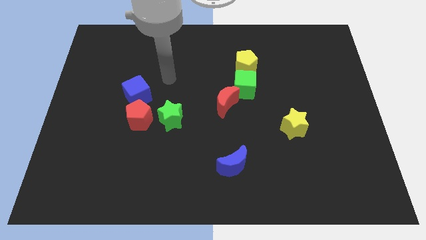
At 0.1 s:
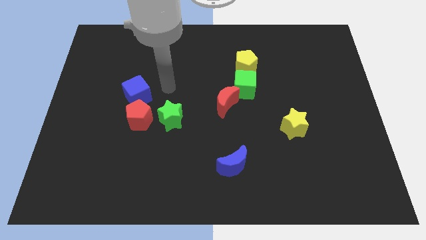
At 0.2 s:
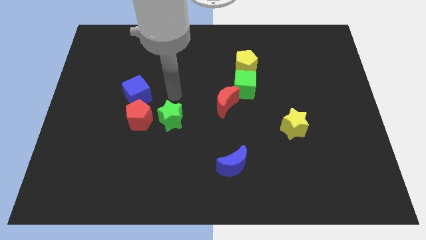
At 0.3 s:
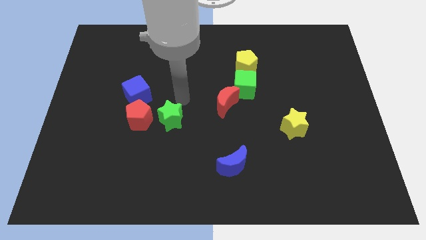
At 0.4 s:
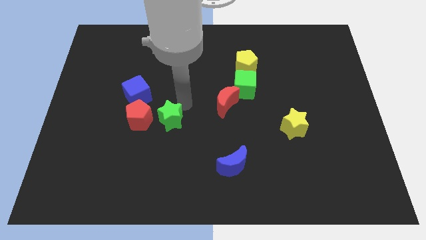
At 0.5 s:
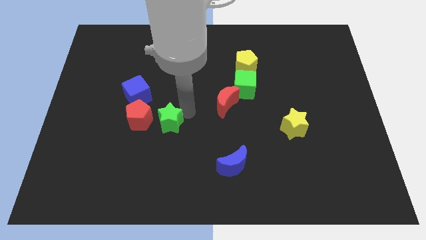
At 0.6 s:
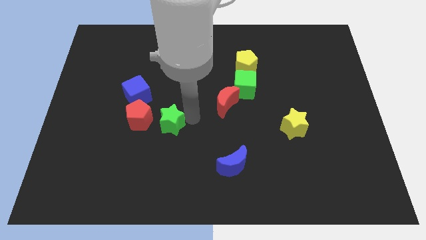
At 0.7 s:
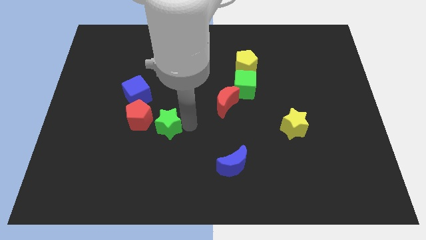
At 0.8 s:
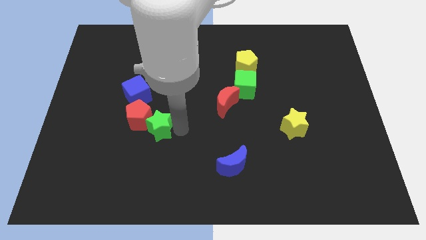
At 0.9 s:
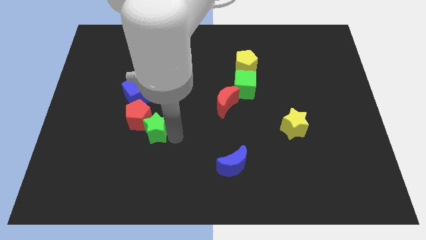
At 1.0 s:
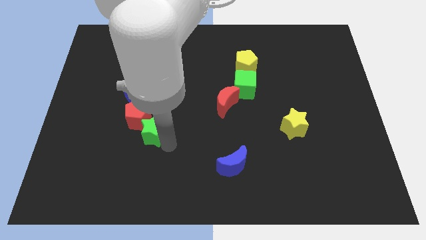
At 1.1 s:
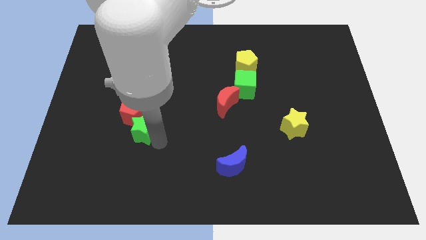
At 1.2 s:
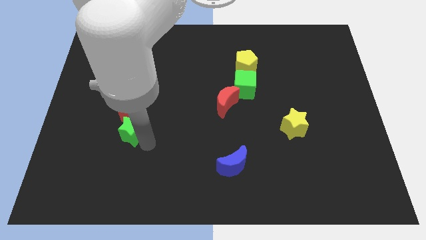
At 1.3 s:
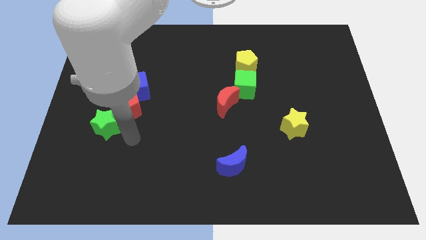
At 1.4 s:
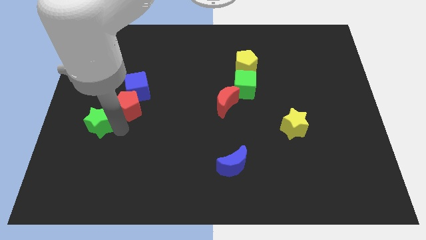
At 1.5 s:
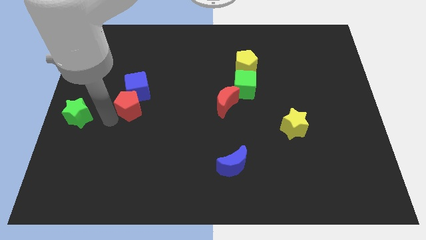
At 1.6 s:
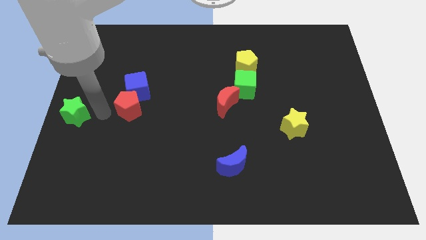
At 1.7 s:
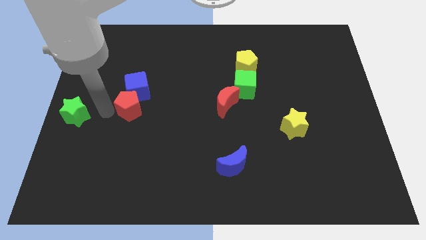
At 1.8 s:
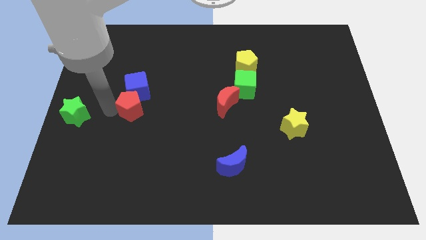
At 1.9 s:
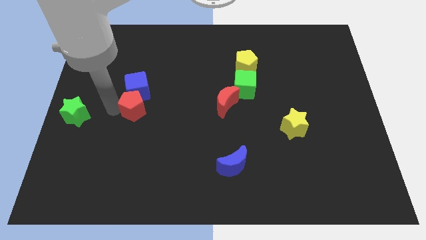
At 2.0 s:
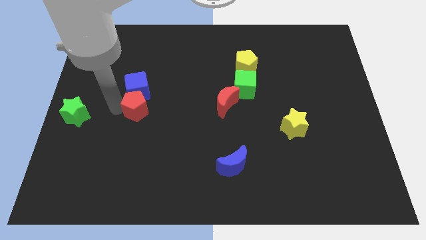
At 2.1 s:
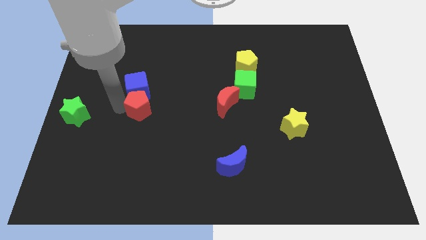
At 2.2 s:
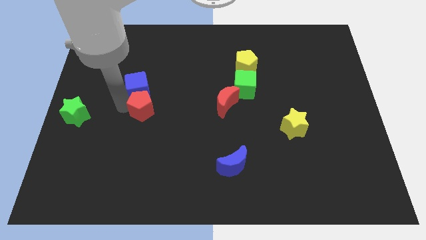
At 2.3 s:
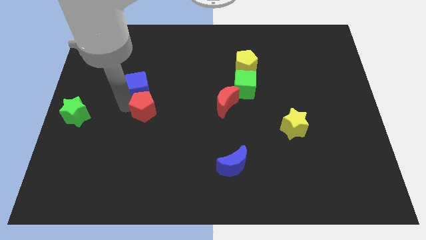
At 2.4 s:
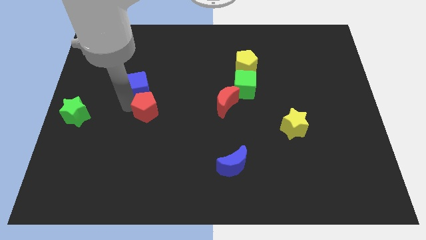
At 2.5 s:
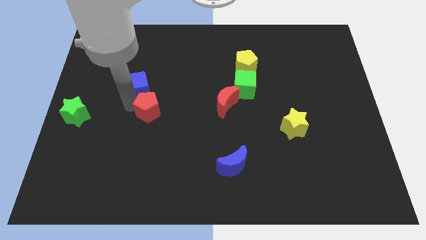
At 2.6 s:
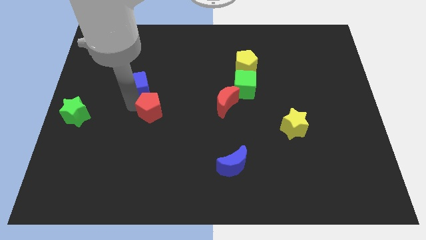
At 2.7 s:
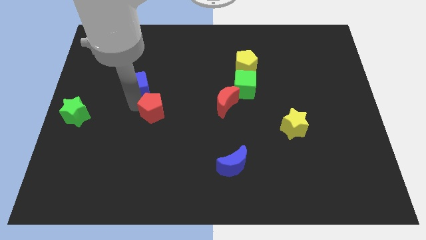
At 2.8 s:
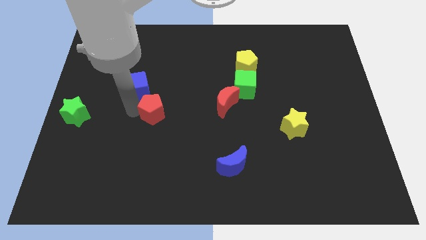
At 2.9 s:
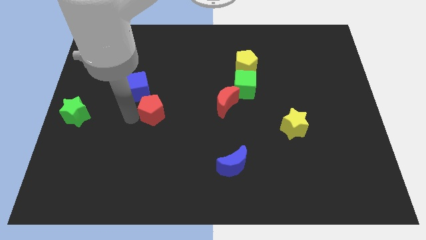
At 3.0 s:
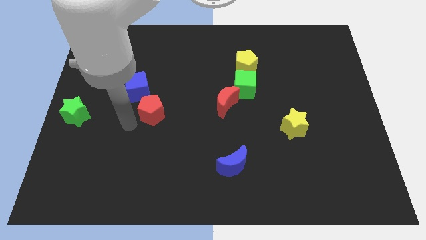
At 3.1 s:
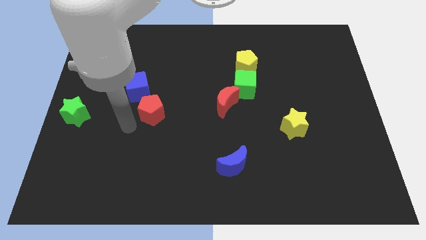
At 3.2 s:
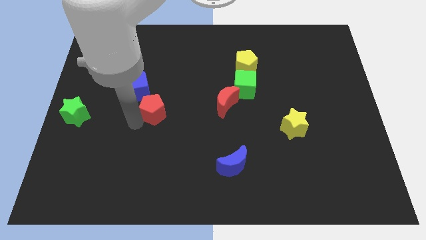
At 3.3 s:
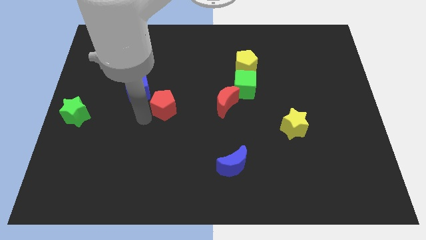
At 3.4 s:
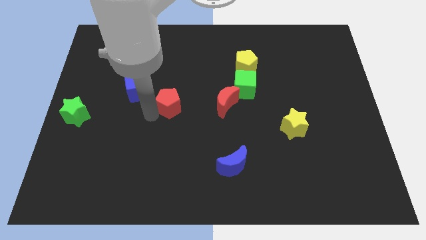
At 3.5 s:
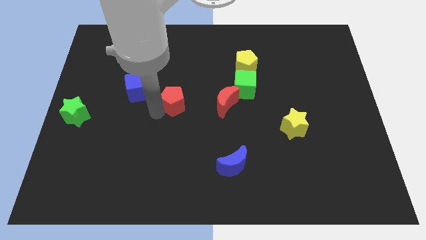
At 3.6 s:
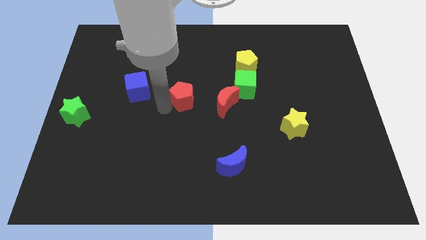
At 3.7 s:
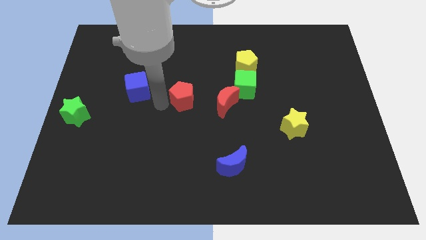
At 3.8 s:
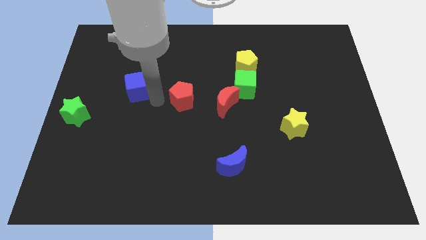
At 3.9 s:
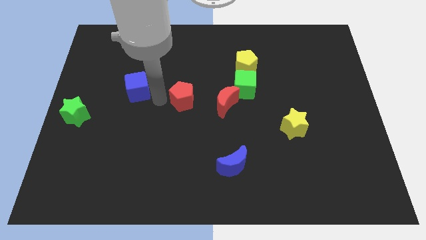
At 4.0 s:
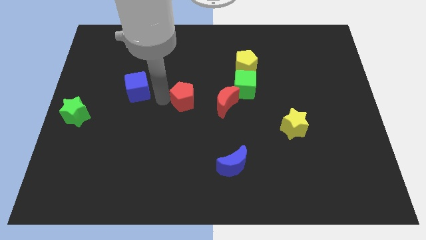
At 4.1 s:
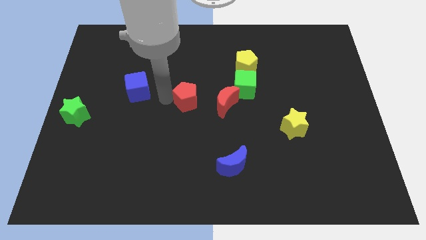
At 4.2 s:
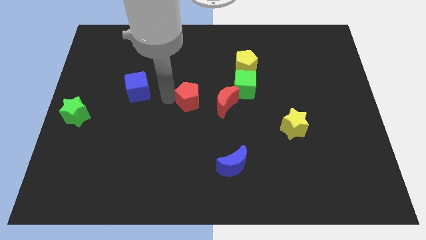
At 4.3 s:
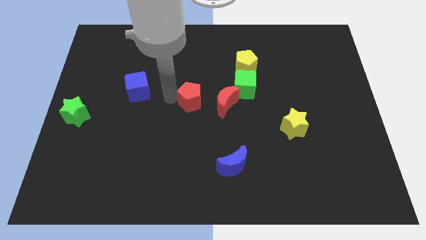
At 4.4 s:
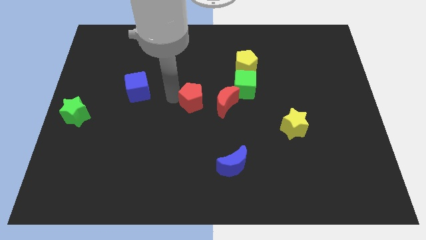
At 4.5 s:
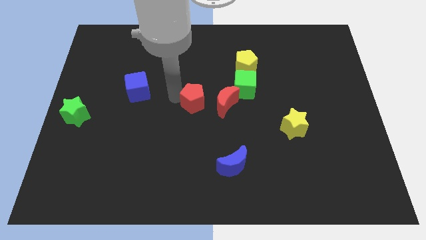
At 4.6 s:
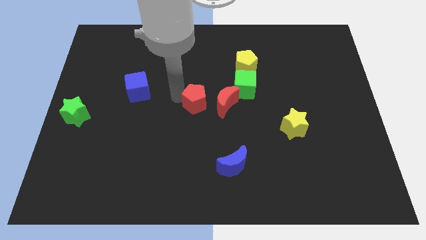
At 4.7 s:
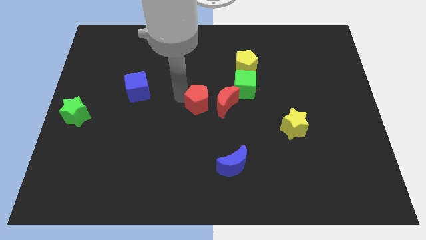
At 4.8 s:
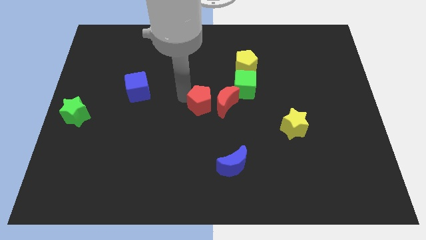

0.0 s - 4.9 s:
slide the red pentagon to the red moon

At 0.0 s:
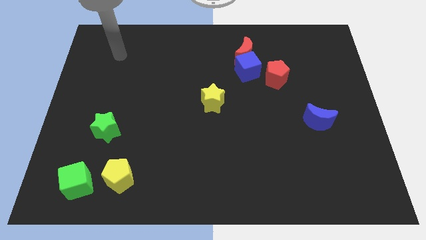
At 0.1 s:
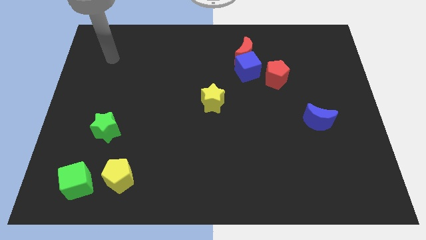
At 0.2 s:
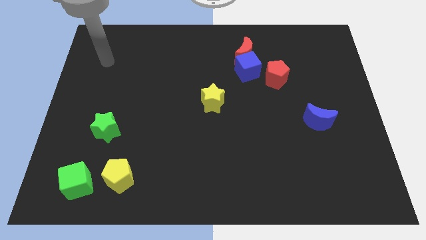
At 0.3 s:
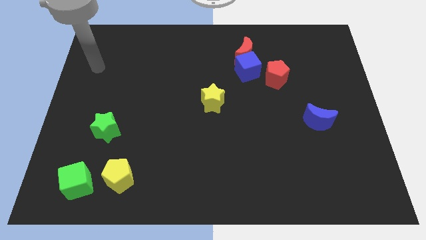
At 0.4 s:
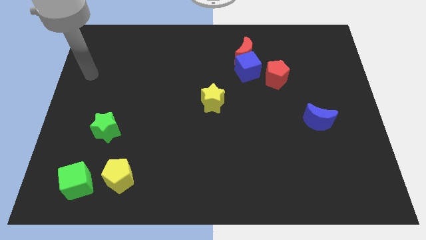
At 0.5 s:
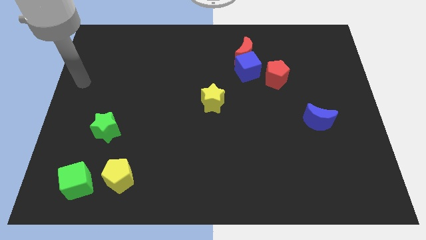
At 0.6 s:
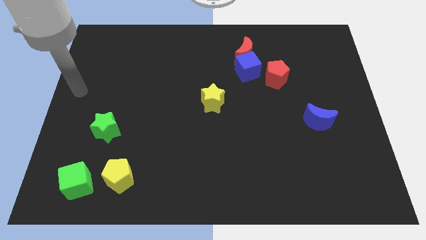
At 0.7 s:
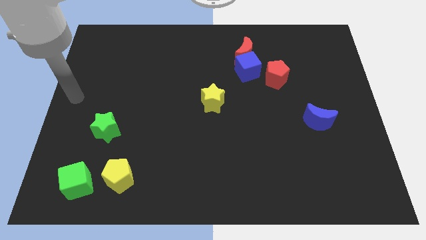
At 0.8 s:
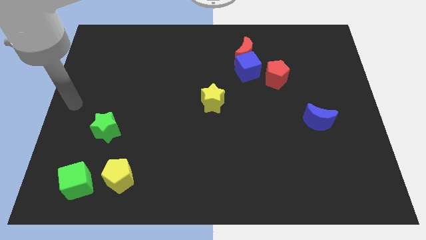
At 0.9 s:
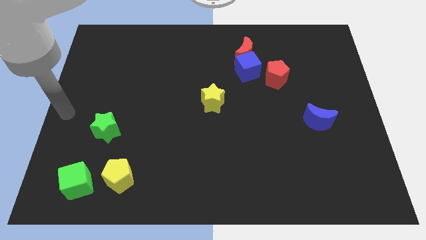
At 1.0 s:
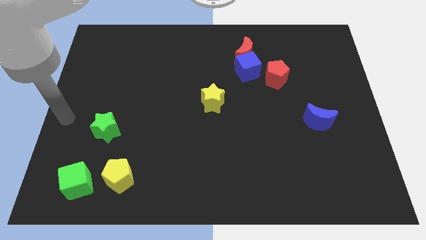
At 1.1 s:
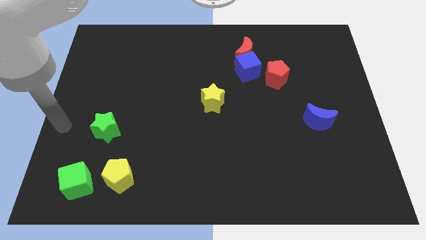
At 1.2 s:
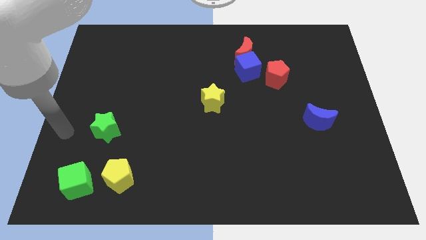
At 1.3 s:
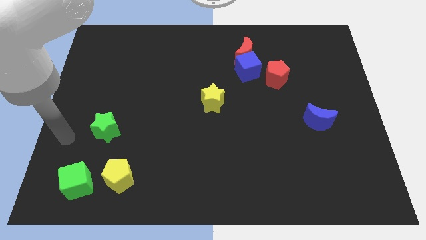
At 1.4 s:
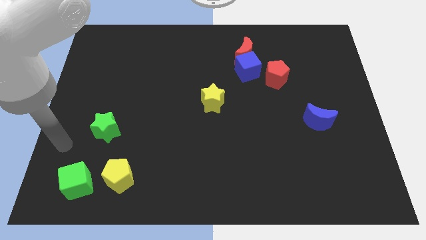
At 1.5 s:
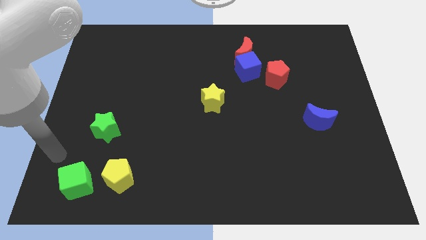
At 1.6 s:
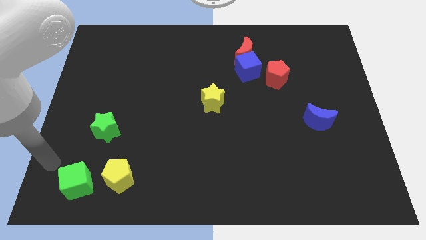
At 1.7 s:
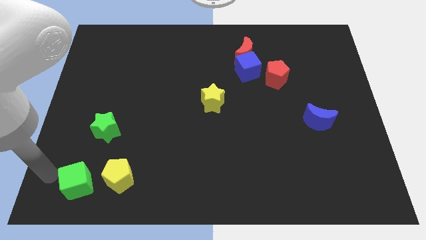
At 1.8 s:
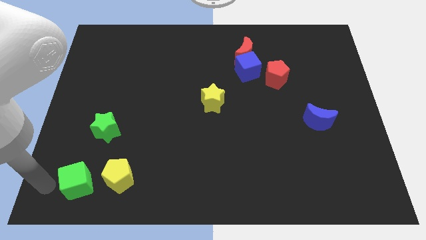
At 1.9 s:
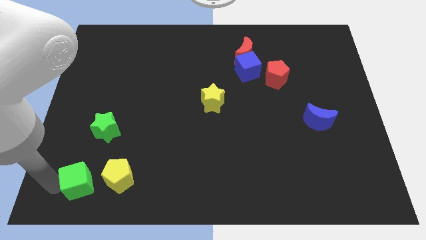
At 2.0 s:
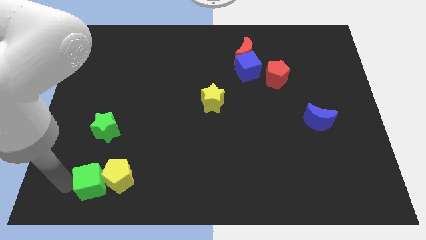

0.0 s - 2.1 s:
push the green cube close to the yellow pentagon
